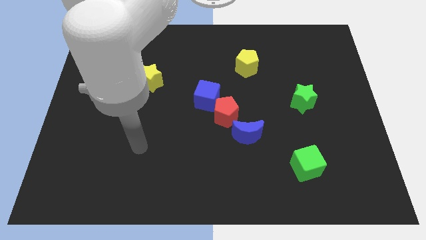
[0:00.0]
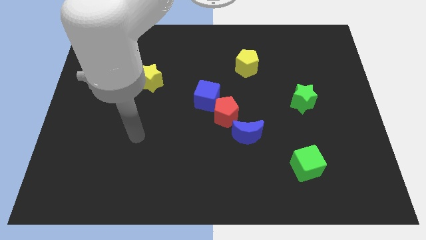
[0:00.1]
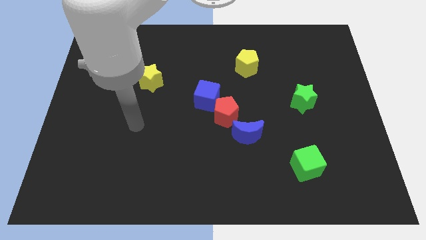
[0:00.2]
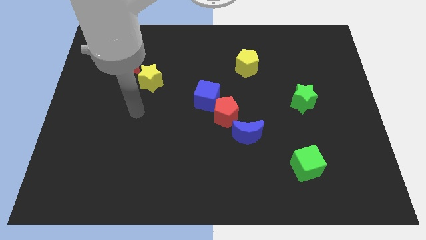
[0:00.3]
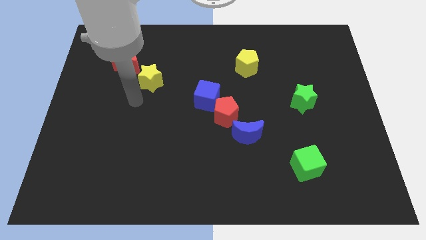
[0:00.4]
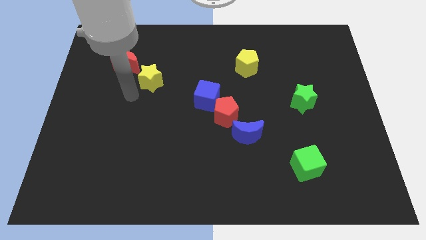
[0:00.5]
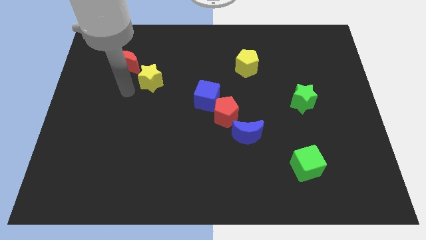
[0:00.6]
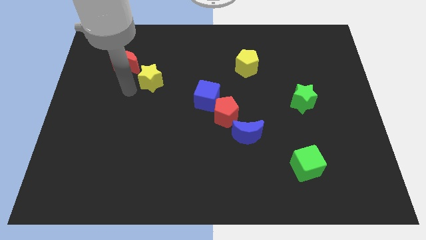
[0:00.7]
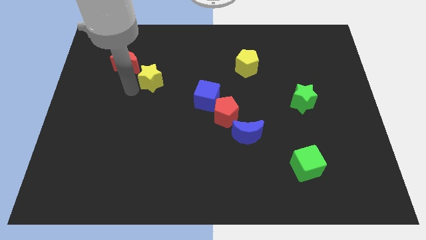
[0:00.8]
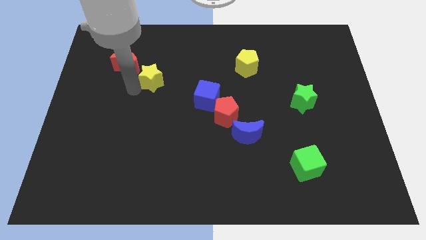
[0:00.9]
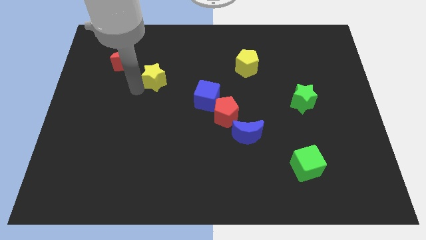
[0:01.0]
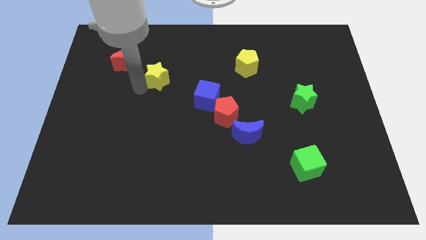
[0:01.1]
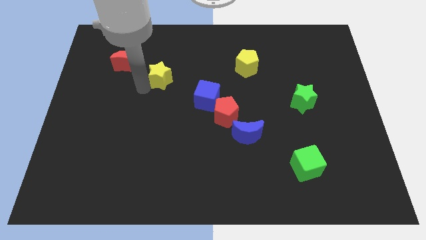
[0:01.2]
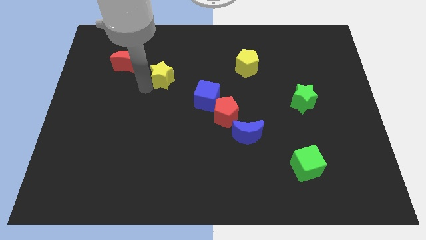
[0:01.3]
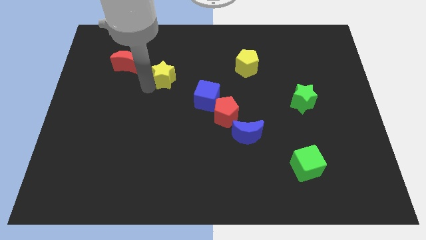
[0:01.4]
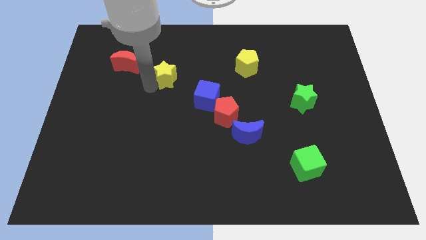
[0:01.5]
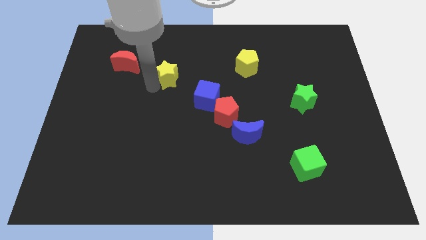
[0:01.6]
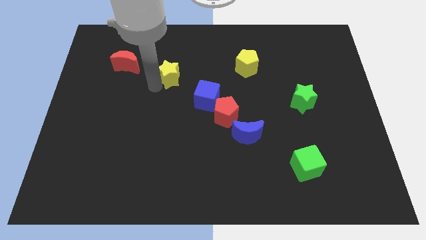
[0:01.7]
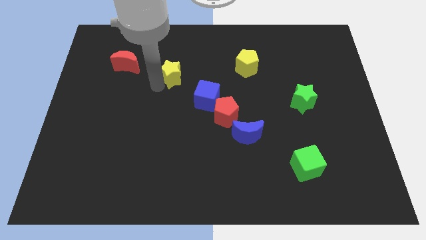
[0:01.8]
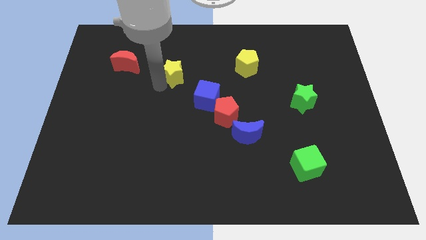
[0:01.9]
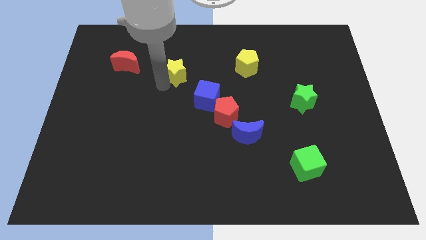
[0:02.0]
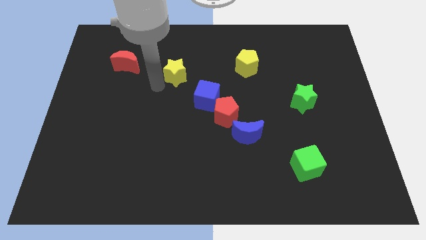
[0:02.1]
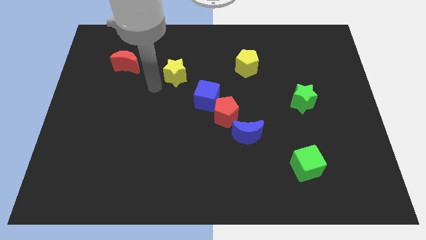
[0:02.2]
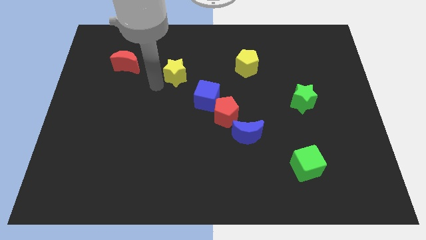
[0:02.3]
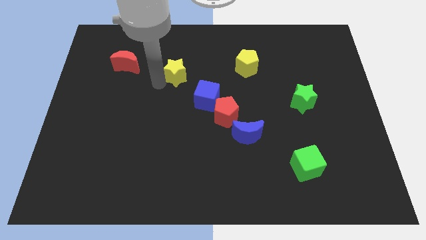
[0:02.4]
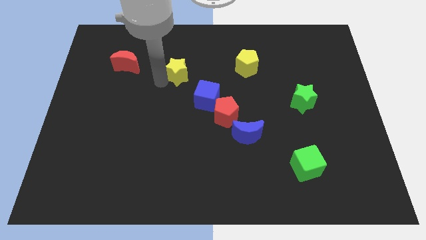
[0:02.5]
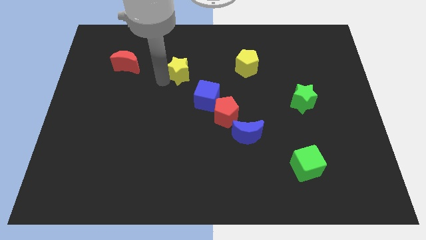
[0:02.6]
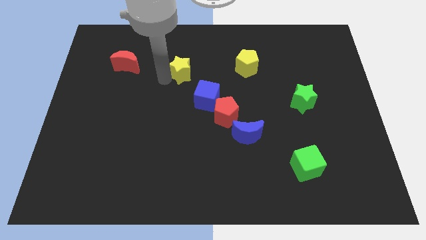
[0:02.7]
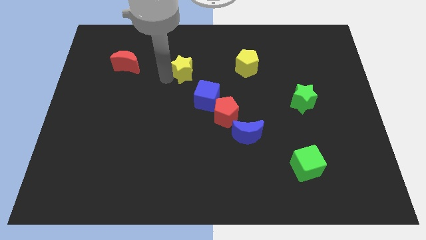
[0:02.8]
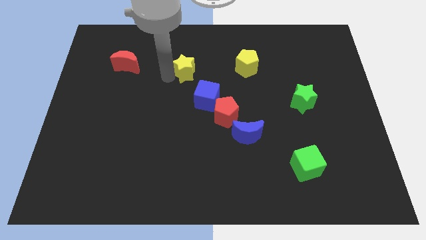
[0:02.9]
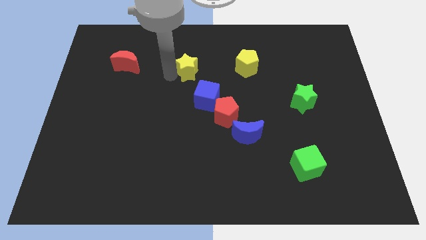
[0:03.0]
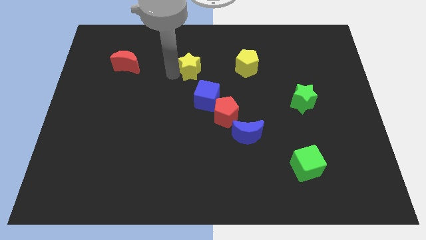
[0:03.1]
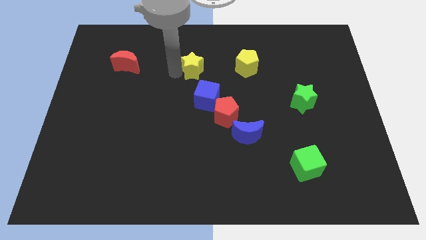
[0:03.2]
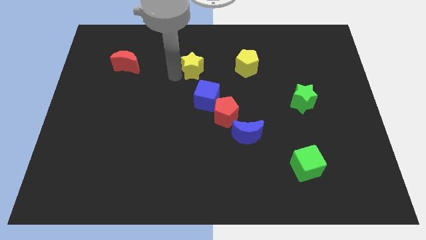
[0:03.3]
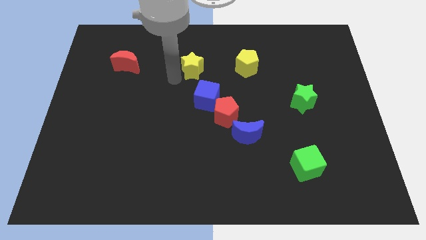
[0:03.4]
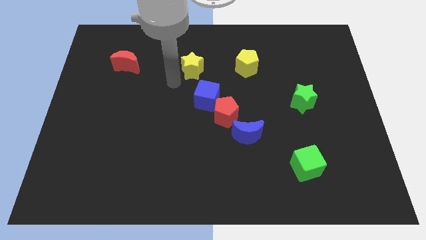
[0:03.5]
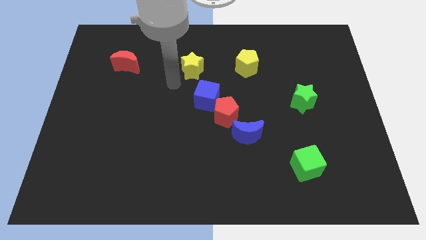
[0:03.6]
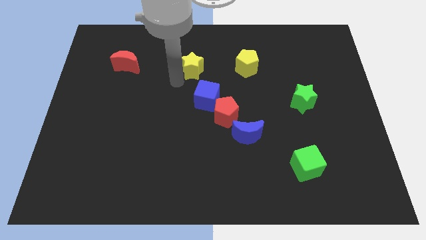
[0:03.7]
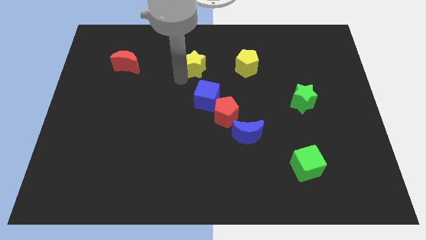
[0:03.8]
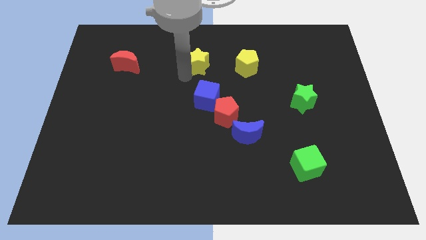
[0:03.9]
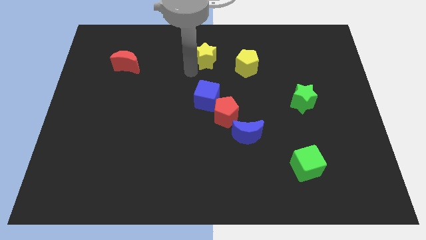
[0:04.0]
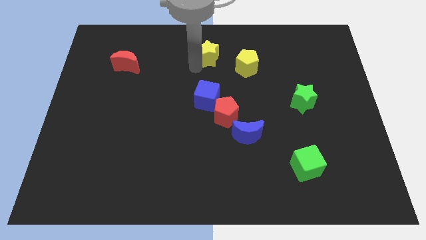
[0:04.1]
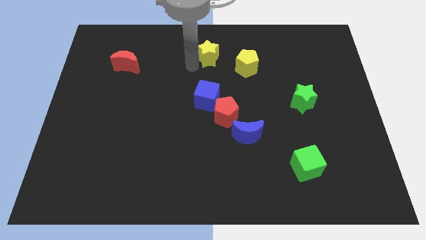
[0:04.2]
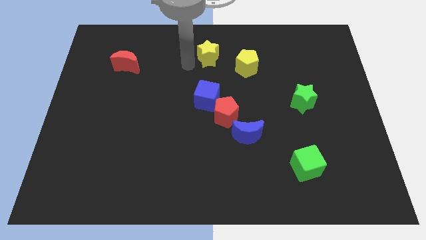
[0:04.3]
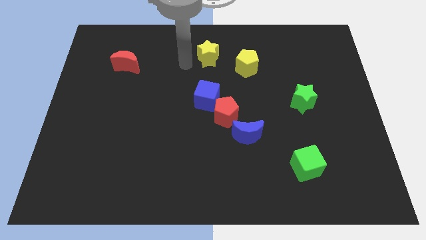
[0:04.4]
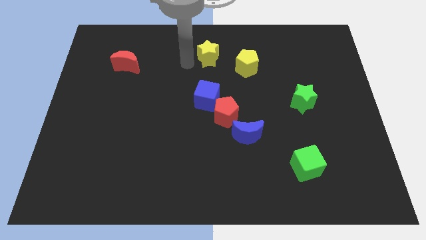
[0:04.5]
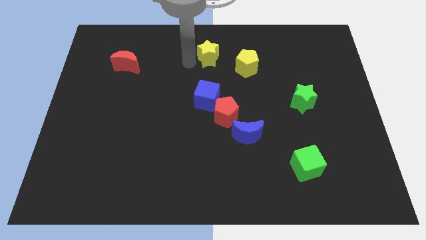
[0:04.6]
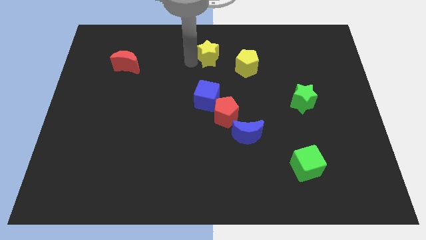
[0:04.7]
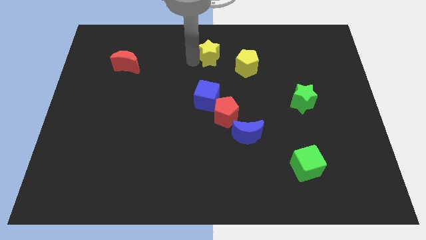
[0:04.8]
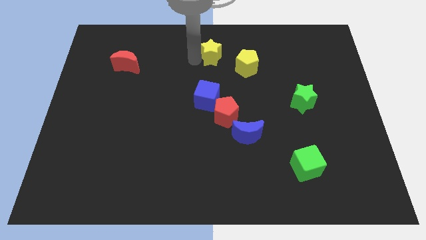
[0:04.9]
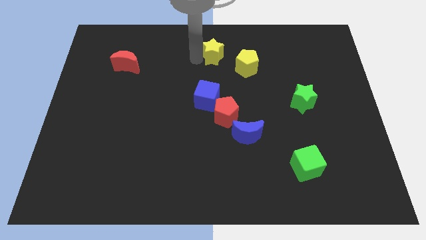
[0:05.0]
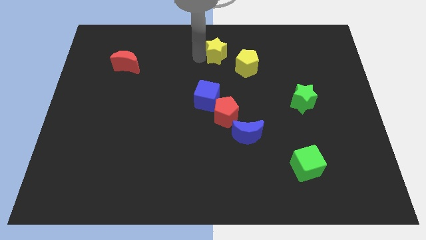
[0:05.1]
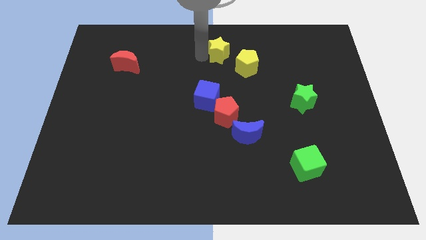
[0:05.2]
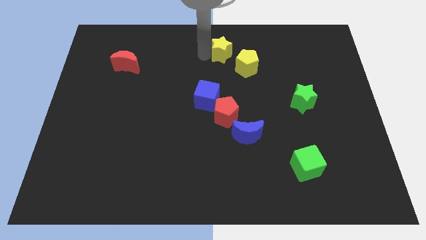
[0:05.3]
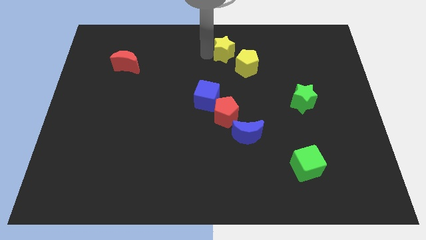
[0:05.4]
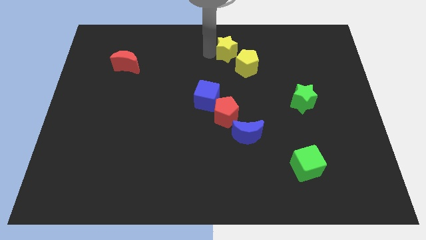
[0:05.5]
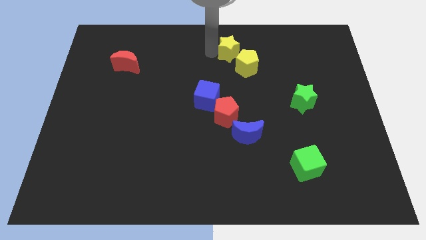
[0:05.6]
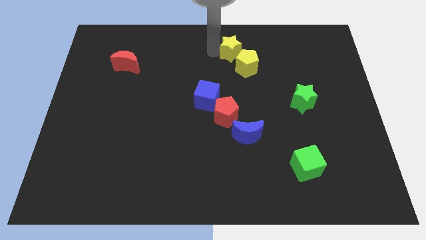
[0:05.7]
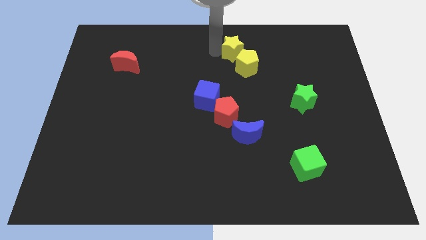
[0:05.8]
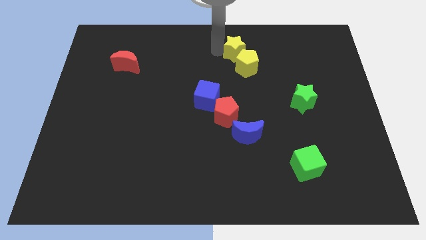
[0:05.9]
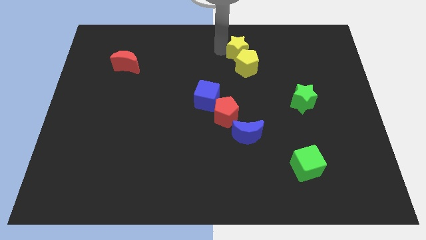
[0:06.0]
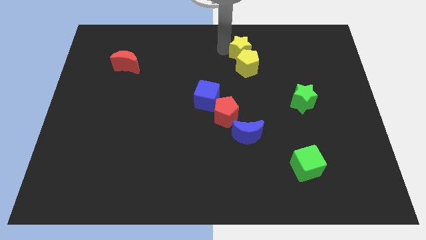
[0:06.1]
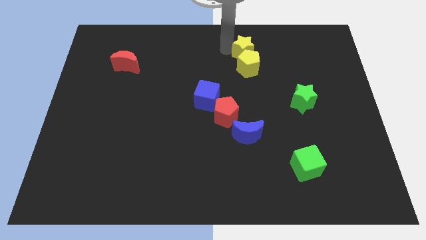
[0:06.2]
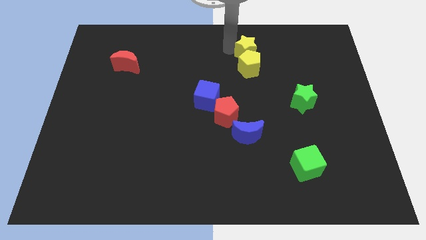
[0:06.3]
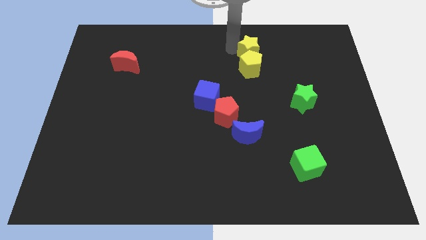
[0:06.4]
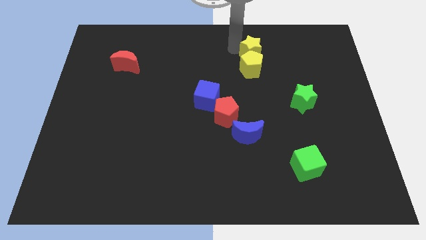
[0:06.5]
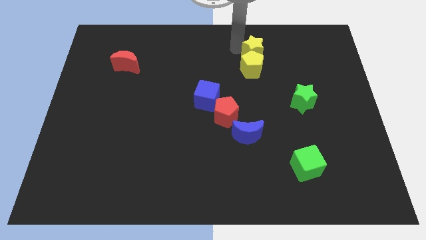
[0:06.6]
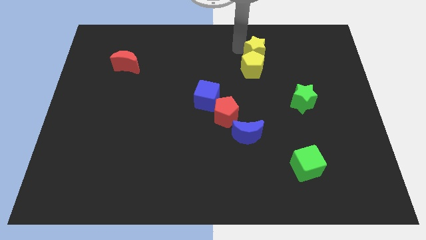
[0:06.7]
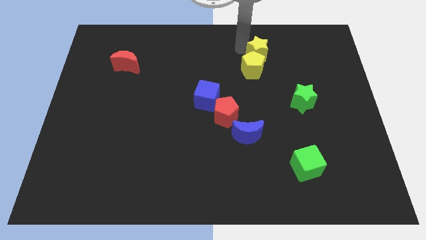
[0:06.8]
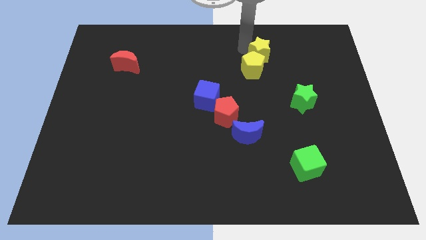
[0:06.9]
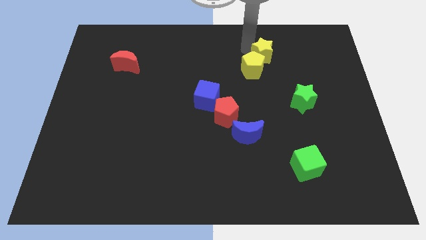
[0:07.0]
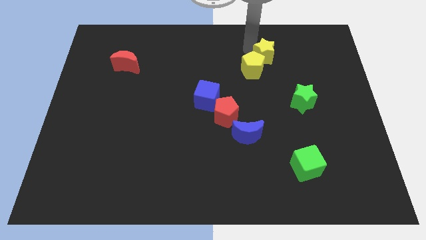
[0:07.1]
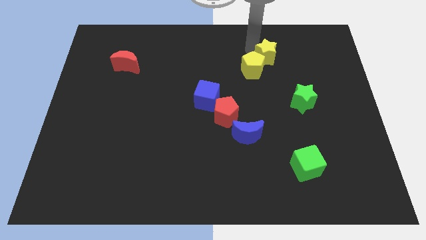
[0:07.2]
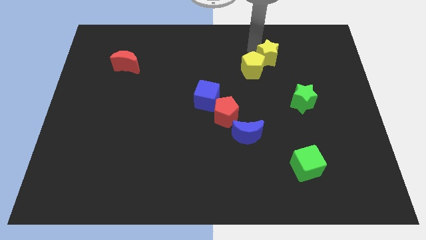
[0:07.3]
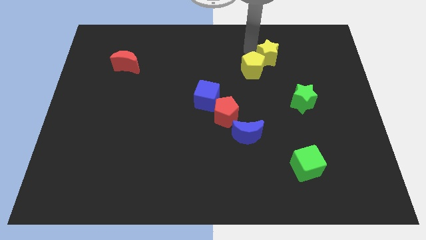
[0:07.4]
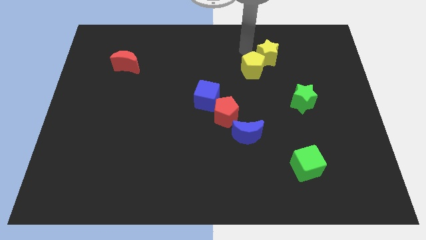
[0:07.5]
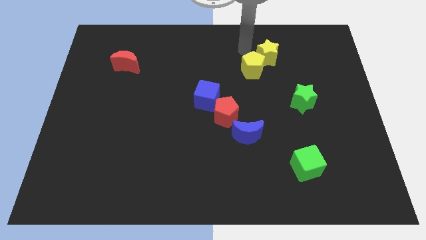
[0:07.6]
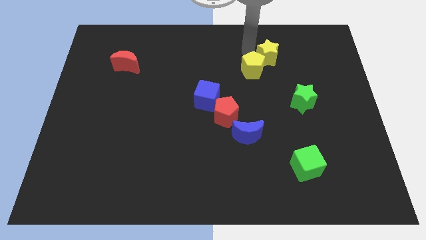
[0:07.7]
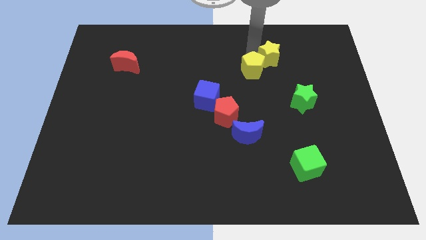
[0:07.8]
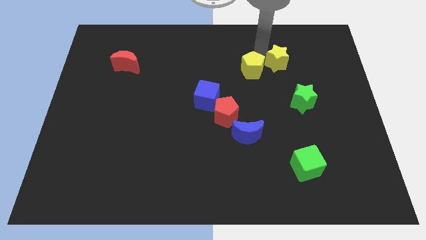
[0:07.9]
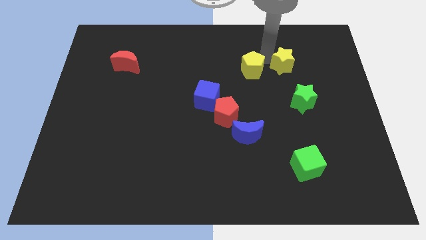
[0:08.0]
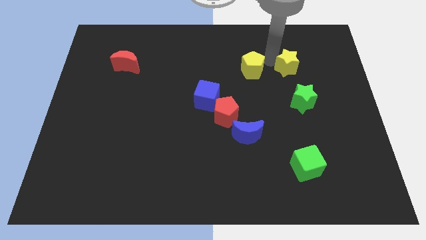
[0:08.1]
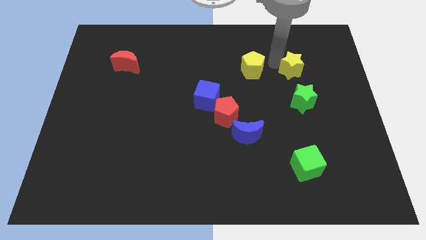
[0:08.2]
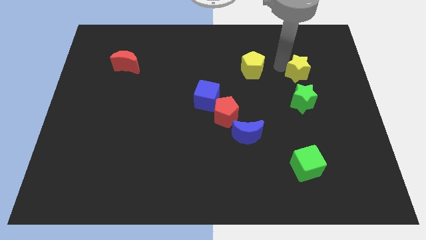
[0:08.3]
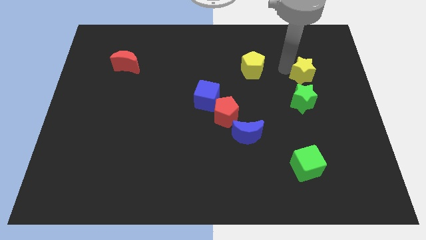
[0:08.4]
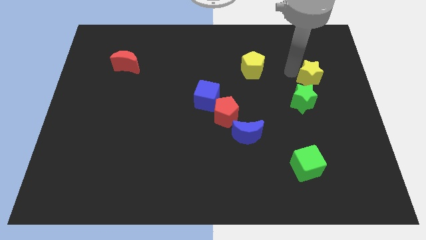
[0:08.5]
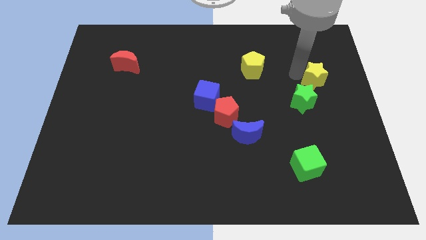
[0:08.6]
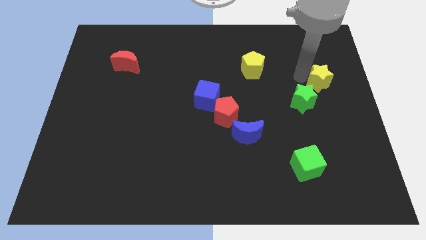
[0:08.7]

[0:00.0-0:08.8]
slide the yellow star to the right side
